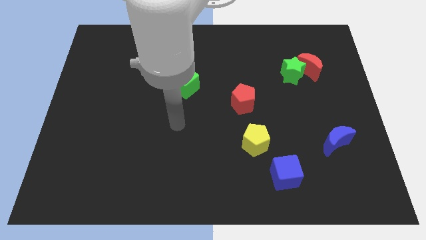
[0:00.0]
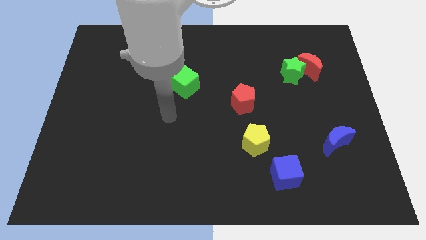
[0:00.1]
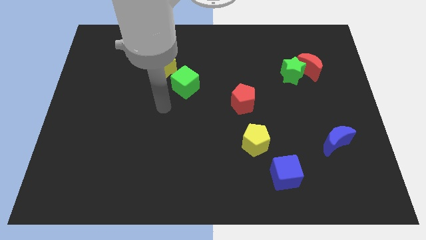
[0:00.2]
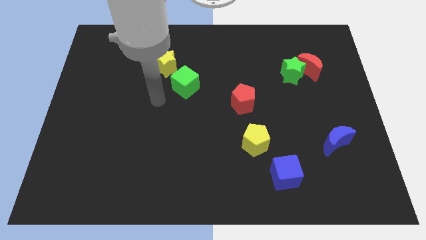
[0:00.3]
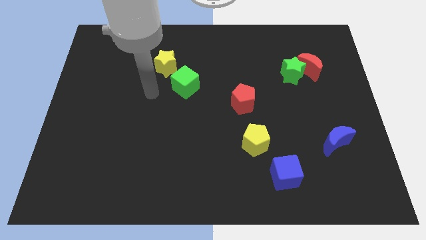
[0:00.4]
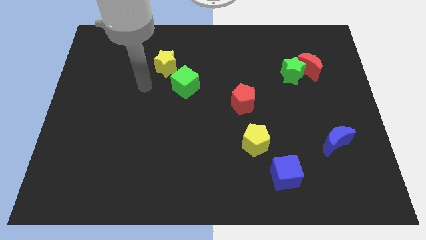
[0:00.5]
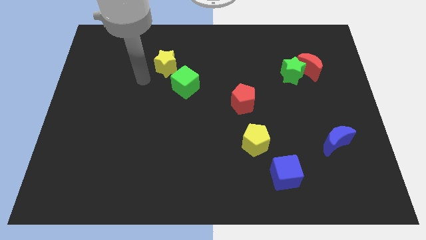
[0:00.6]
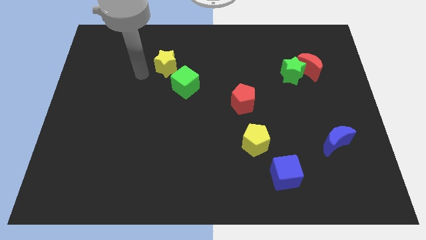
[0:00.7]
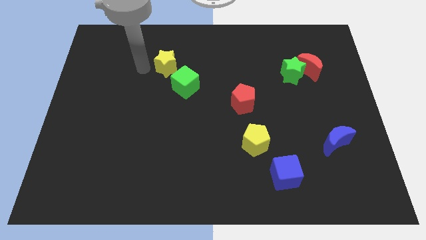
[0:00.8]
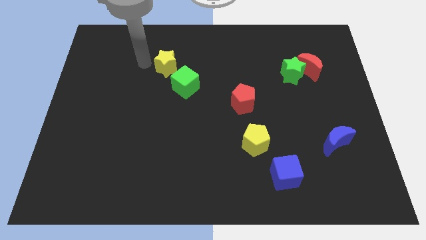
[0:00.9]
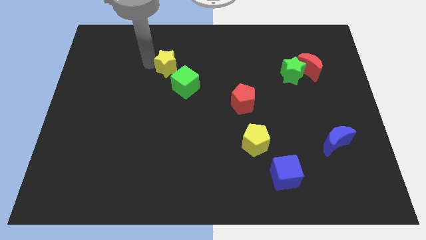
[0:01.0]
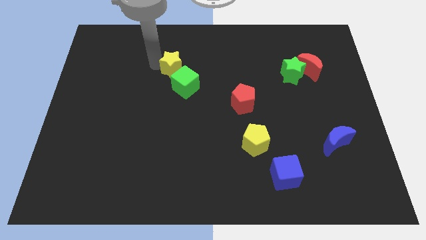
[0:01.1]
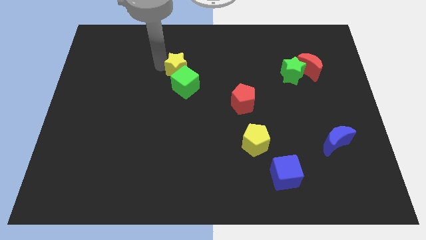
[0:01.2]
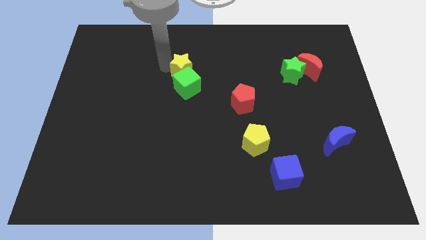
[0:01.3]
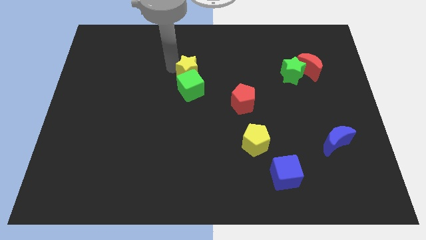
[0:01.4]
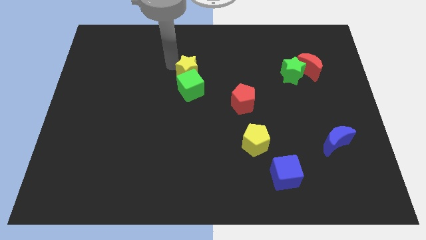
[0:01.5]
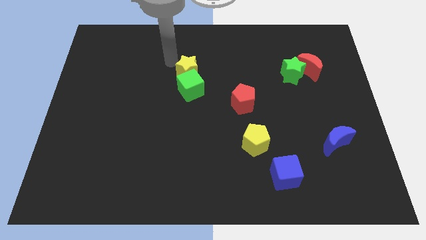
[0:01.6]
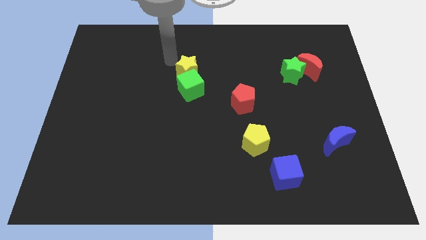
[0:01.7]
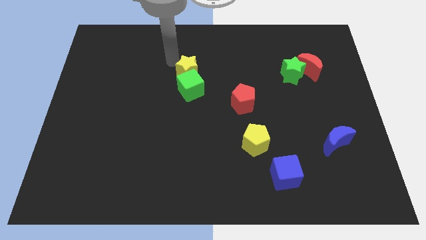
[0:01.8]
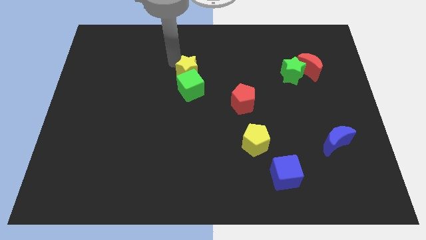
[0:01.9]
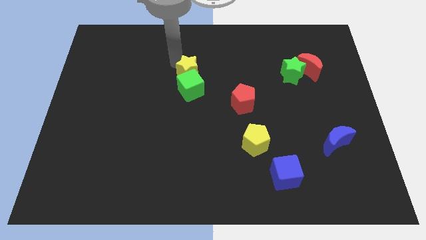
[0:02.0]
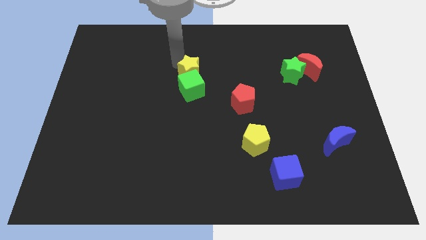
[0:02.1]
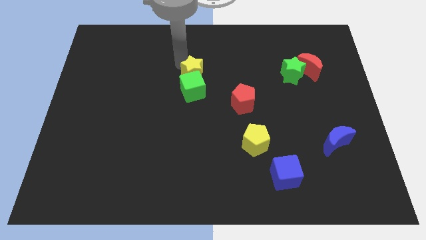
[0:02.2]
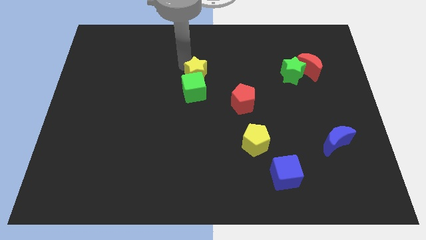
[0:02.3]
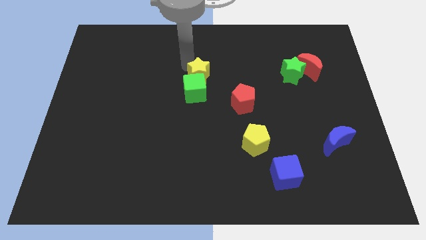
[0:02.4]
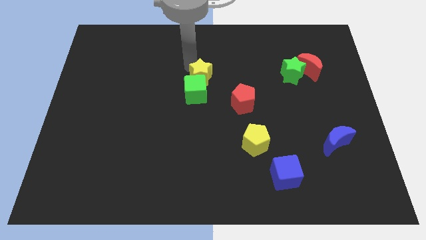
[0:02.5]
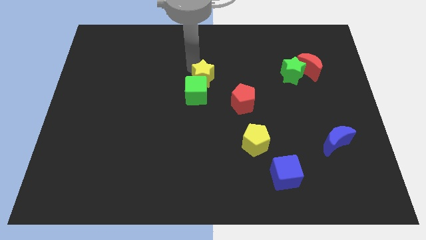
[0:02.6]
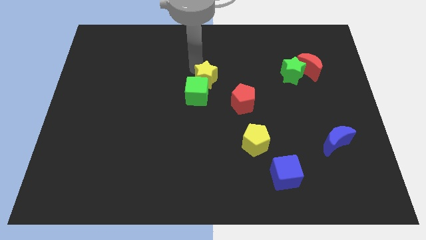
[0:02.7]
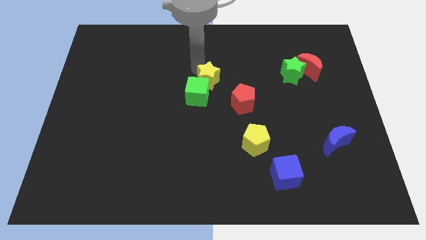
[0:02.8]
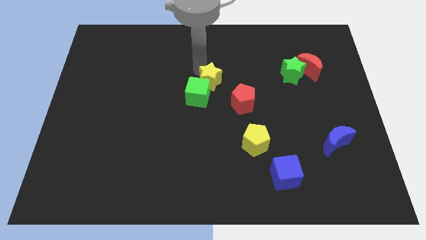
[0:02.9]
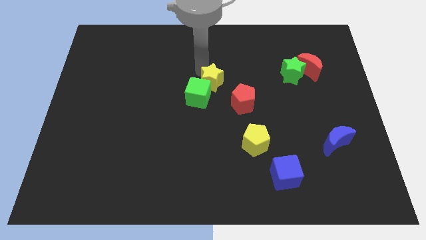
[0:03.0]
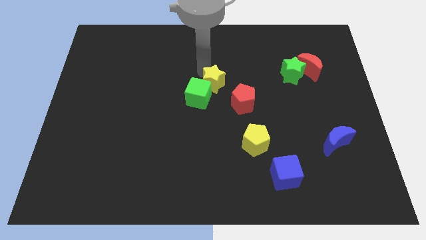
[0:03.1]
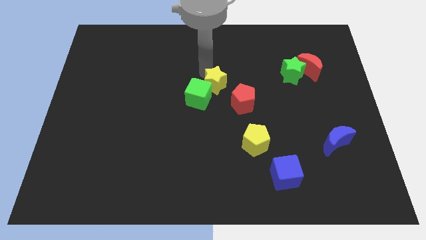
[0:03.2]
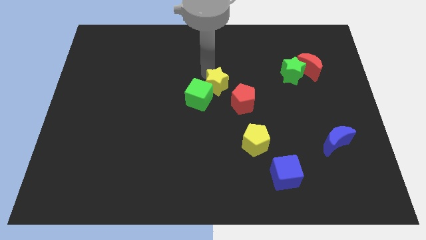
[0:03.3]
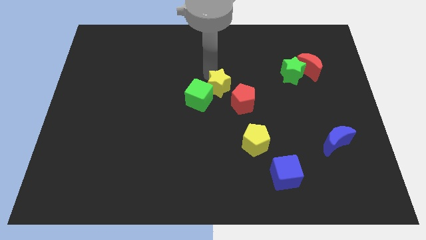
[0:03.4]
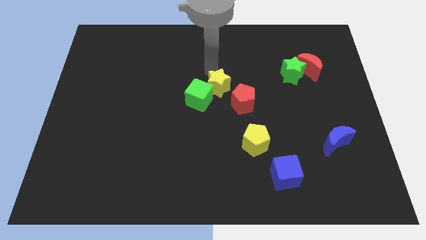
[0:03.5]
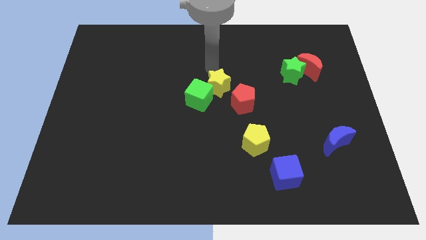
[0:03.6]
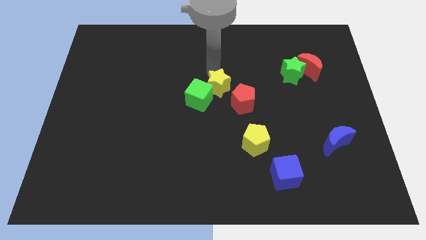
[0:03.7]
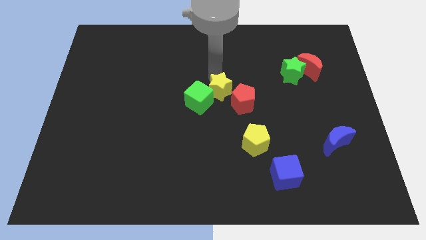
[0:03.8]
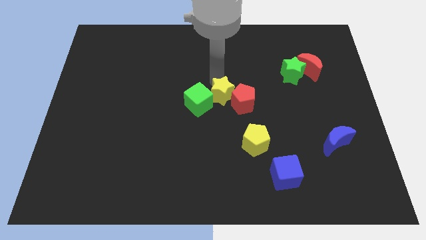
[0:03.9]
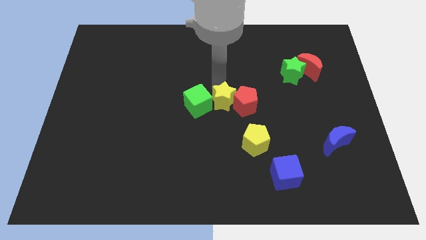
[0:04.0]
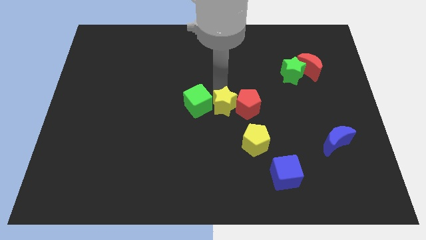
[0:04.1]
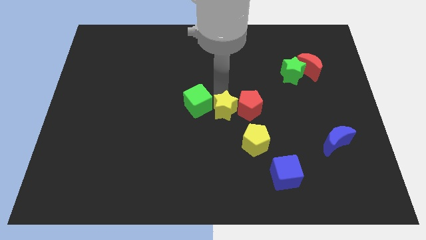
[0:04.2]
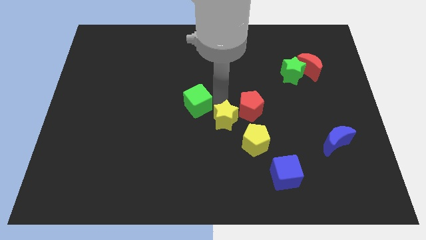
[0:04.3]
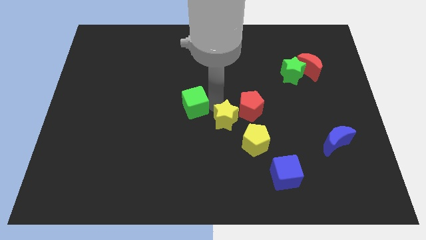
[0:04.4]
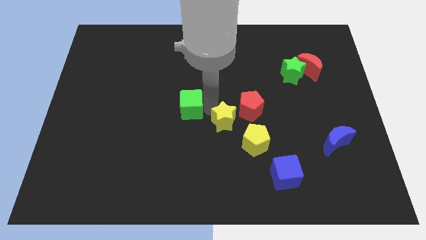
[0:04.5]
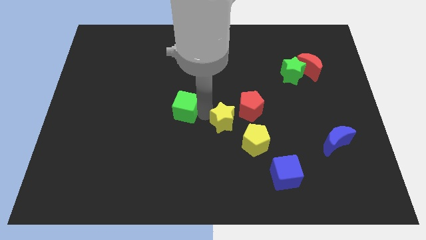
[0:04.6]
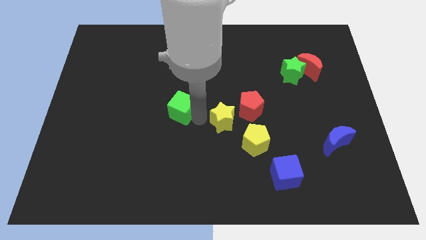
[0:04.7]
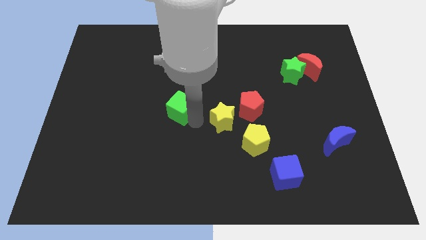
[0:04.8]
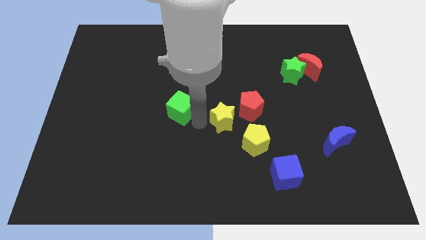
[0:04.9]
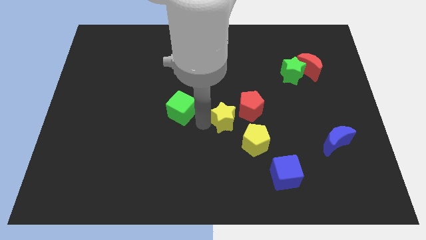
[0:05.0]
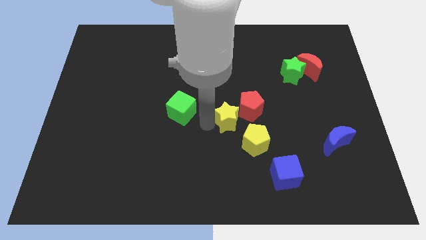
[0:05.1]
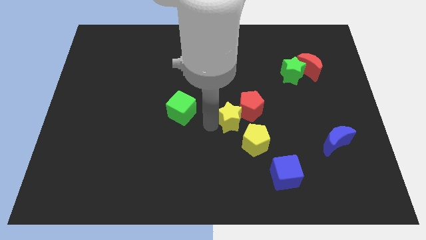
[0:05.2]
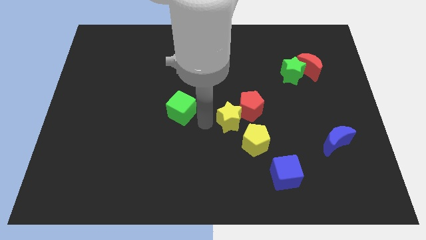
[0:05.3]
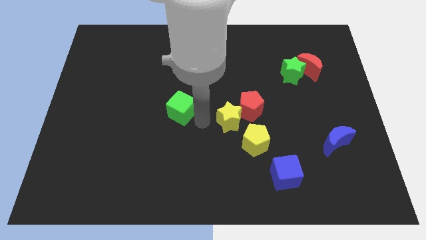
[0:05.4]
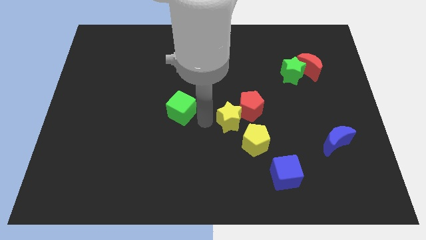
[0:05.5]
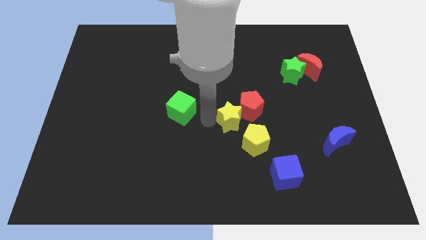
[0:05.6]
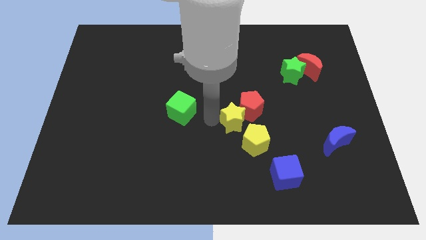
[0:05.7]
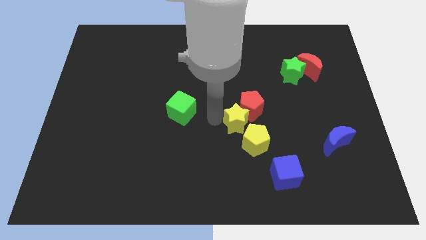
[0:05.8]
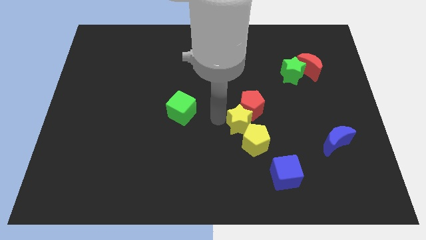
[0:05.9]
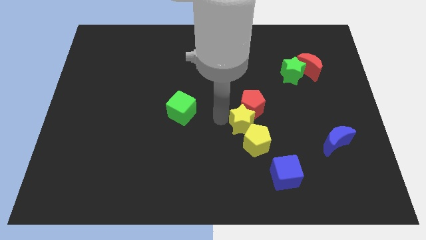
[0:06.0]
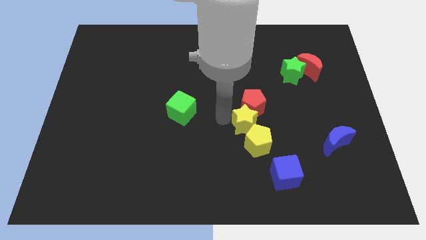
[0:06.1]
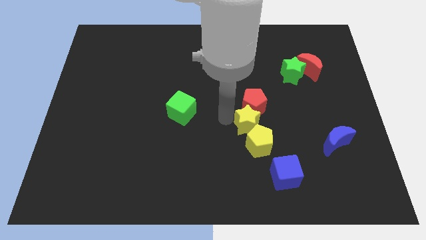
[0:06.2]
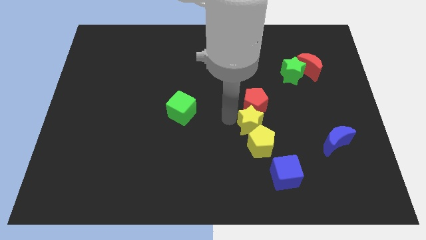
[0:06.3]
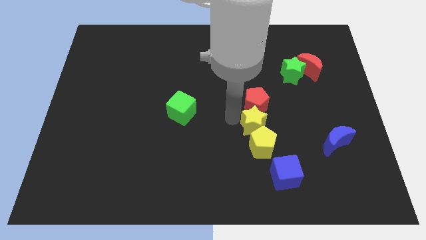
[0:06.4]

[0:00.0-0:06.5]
slide the yellow star to the top right of the yellow pentagon

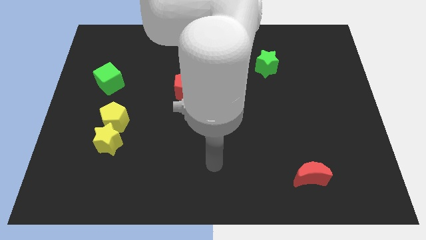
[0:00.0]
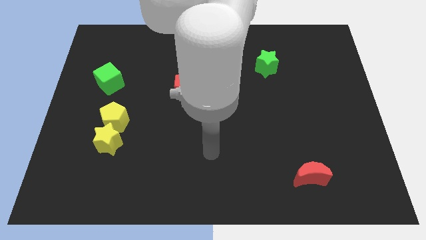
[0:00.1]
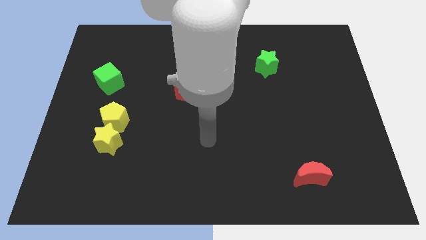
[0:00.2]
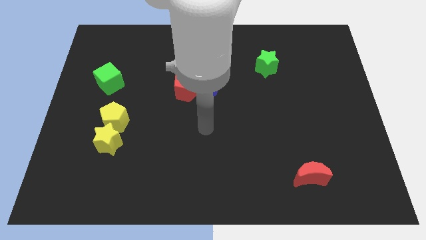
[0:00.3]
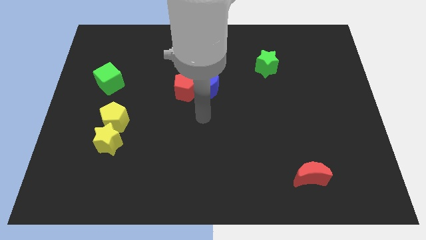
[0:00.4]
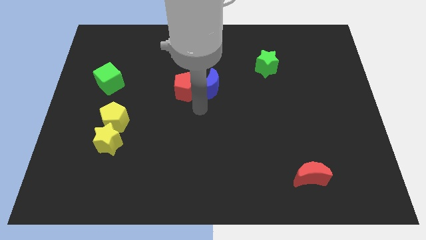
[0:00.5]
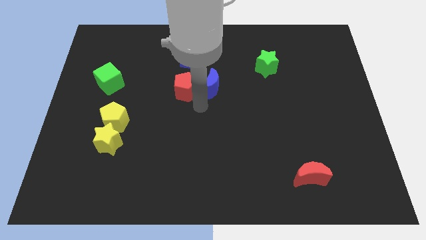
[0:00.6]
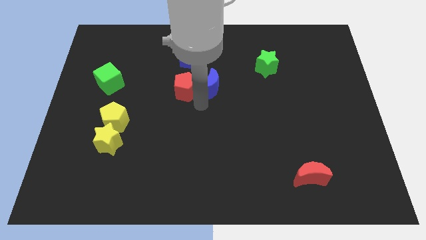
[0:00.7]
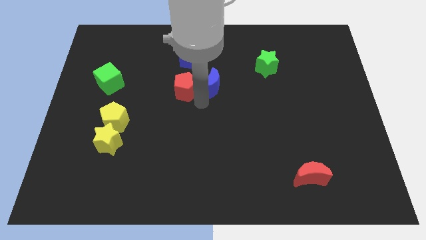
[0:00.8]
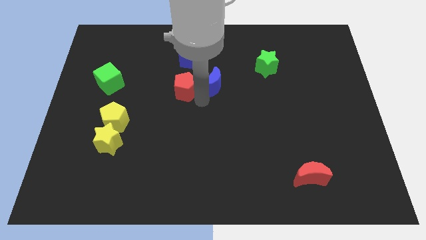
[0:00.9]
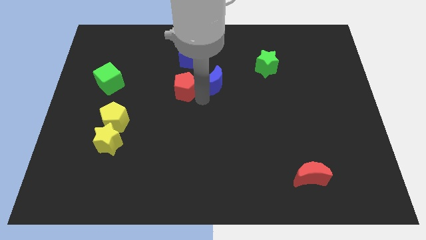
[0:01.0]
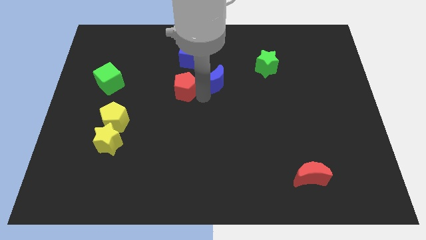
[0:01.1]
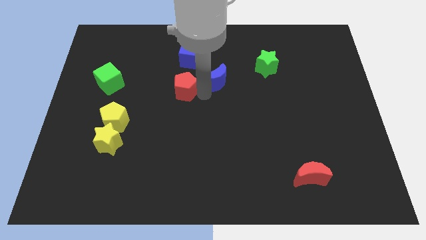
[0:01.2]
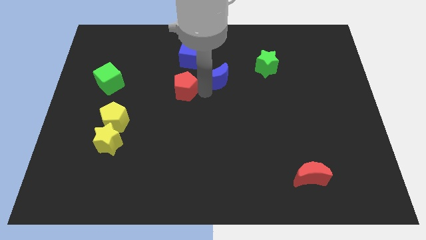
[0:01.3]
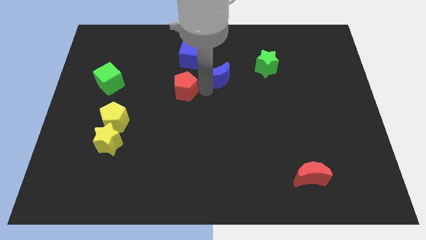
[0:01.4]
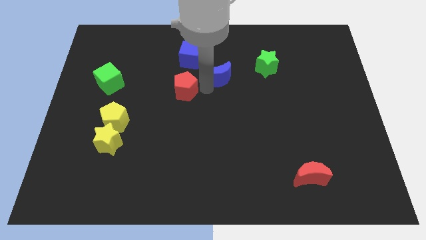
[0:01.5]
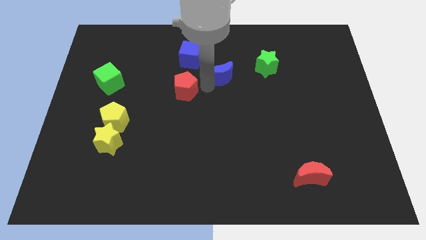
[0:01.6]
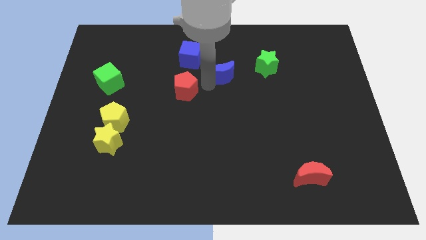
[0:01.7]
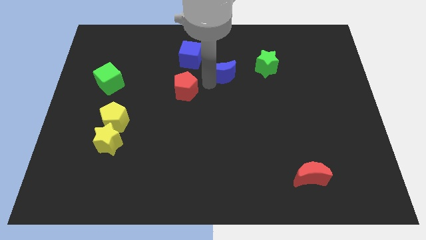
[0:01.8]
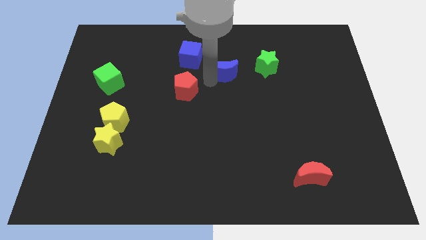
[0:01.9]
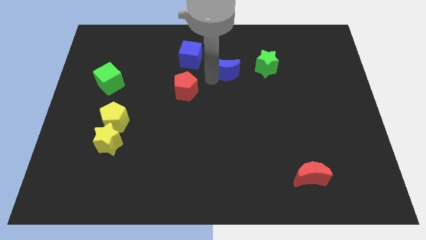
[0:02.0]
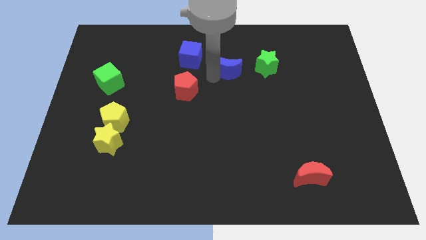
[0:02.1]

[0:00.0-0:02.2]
put the blue moon to the right of the blue cube
